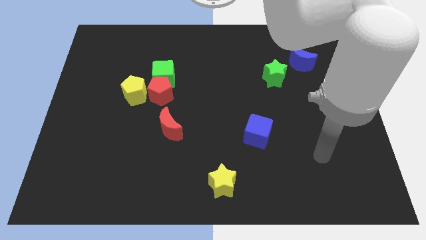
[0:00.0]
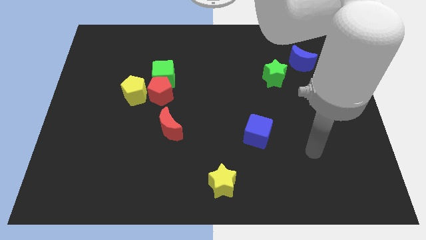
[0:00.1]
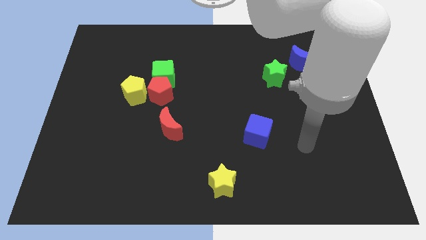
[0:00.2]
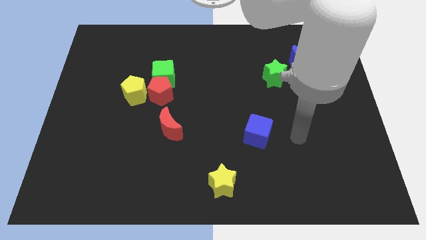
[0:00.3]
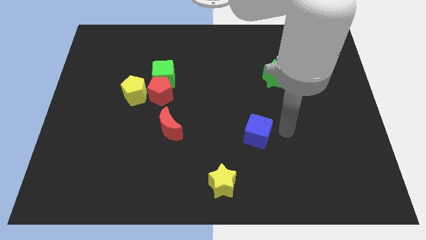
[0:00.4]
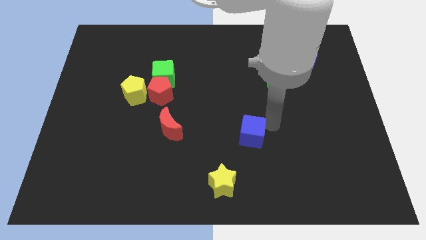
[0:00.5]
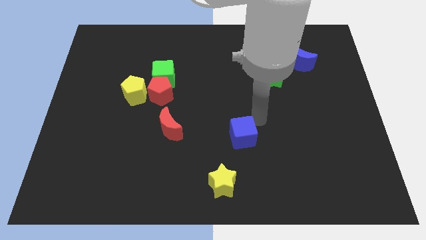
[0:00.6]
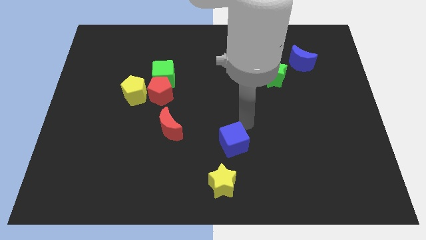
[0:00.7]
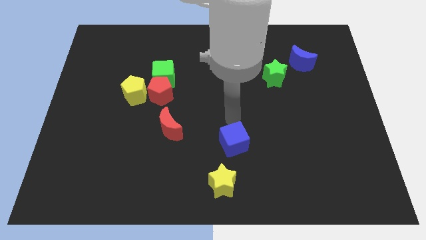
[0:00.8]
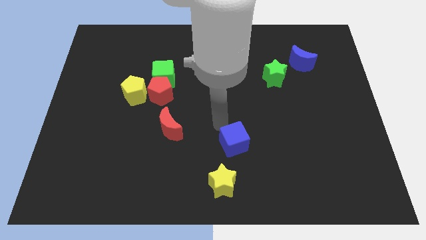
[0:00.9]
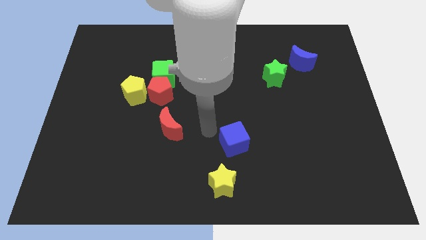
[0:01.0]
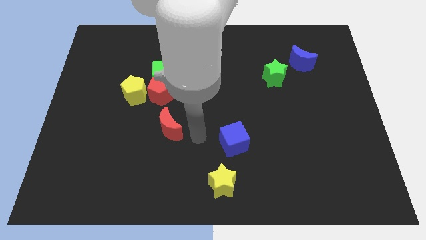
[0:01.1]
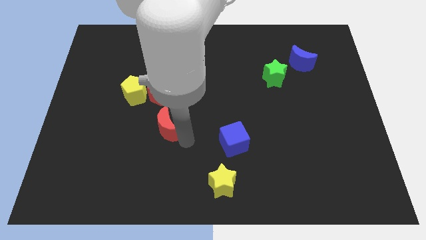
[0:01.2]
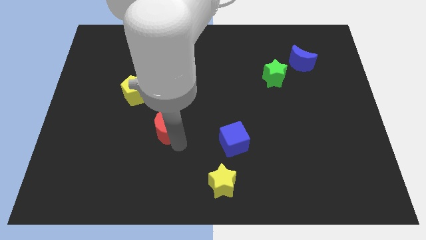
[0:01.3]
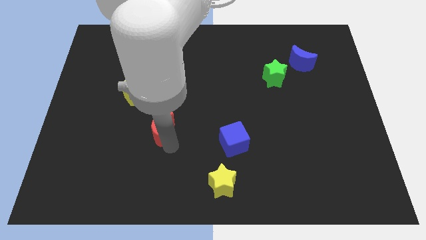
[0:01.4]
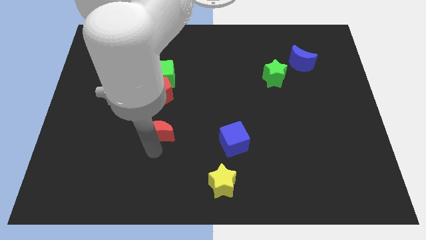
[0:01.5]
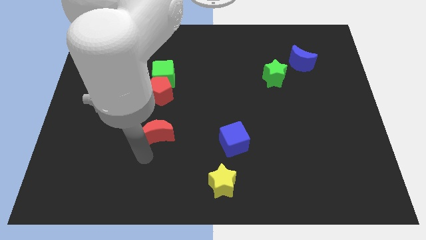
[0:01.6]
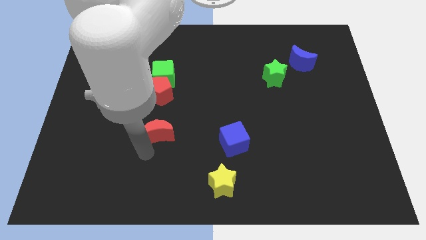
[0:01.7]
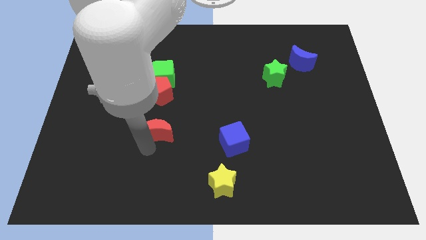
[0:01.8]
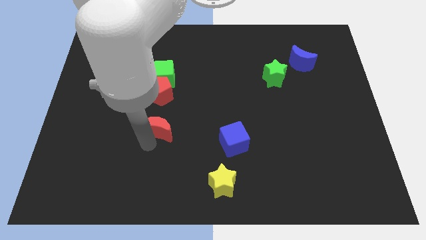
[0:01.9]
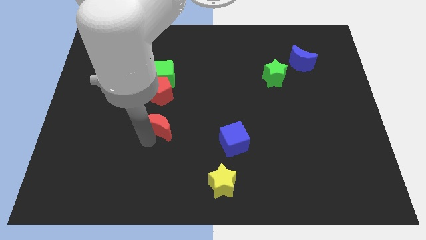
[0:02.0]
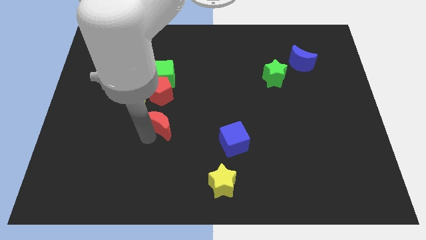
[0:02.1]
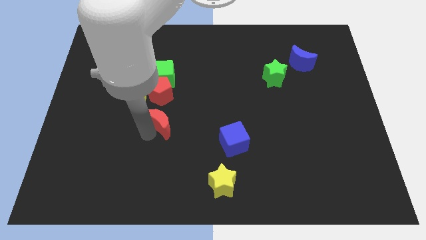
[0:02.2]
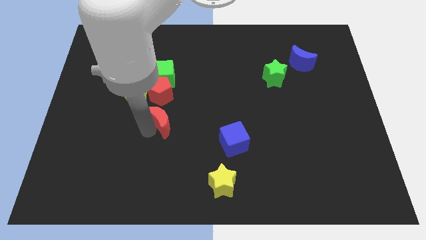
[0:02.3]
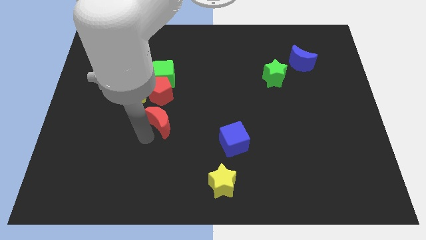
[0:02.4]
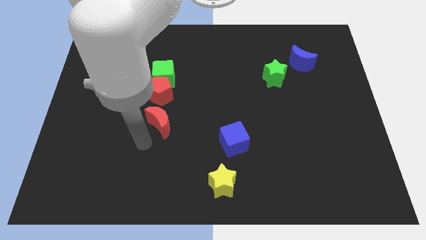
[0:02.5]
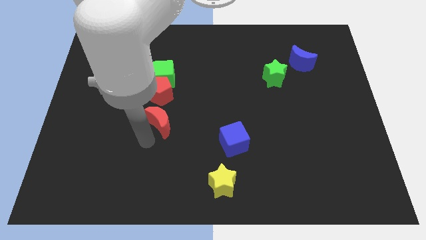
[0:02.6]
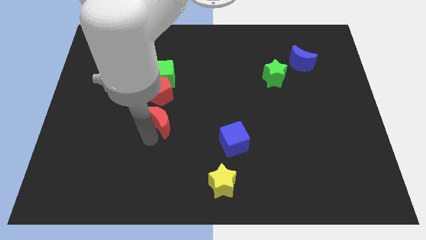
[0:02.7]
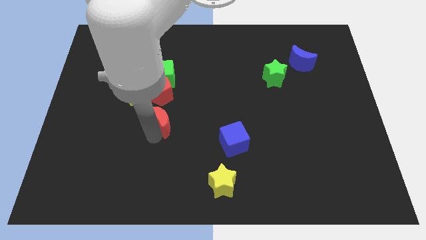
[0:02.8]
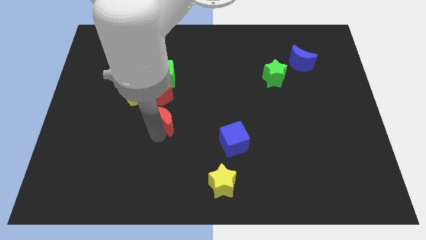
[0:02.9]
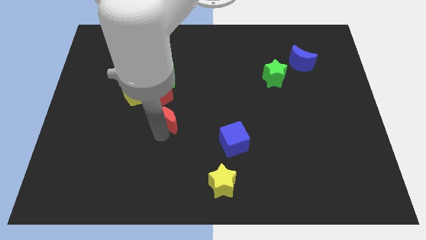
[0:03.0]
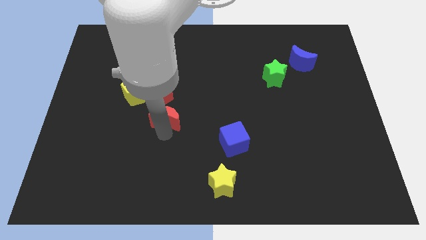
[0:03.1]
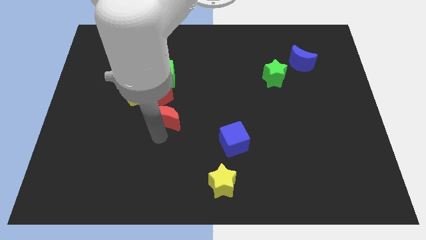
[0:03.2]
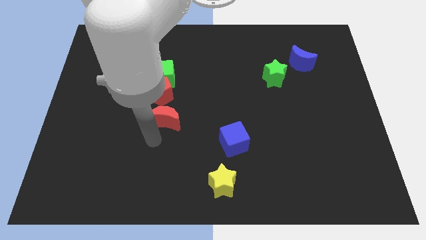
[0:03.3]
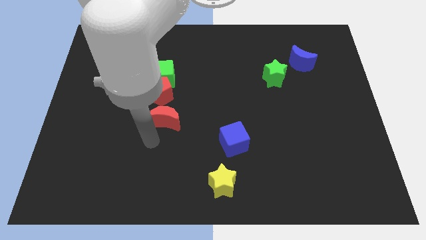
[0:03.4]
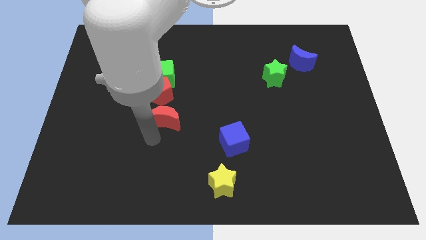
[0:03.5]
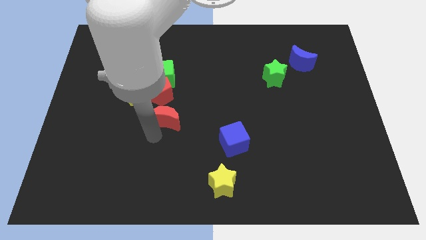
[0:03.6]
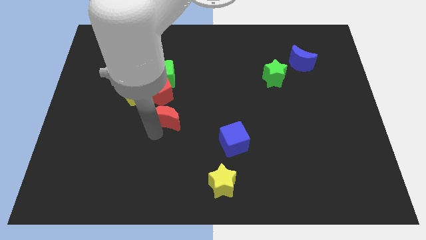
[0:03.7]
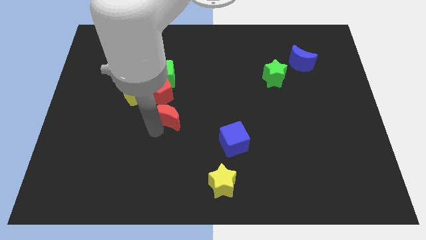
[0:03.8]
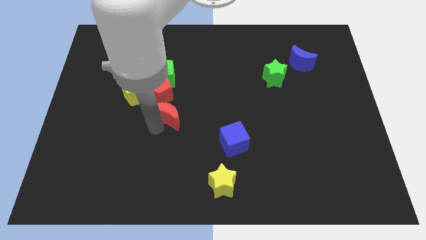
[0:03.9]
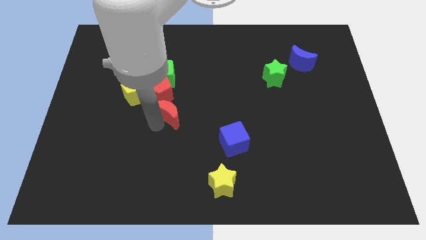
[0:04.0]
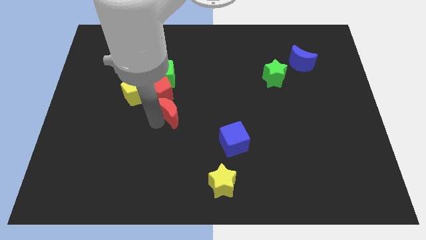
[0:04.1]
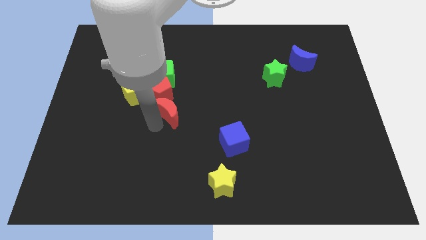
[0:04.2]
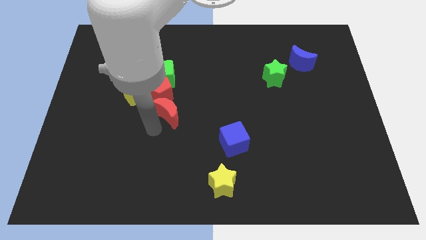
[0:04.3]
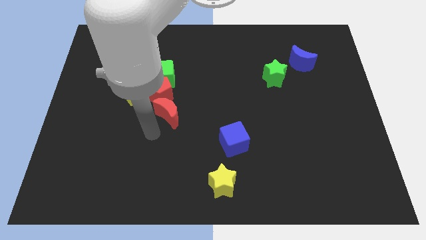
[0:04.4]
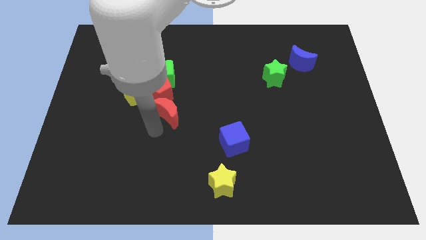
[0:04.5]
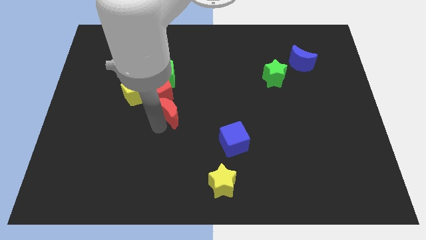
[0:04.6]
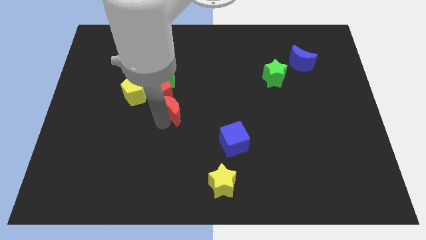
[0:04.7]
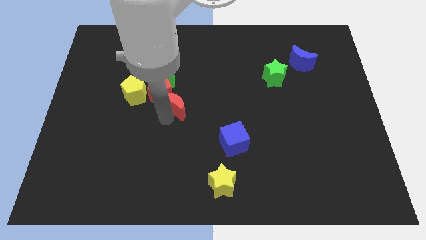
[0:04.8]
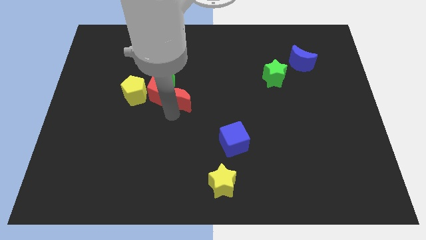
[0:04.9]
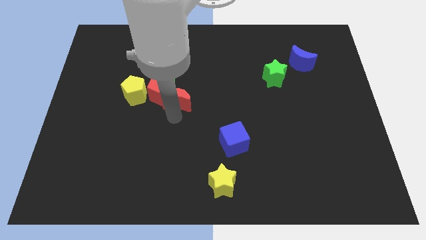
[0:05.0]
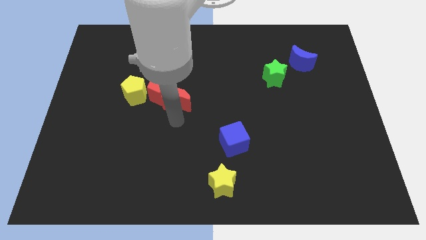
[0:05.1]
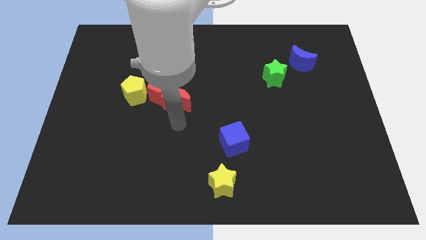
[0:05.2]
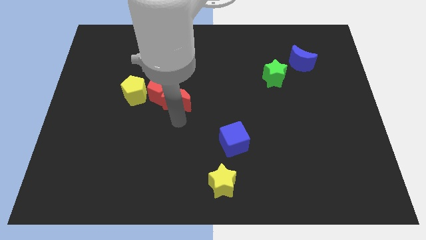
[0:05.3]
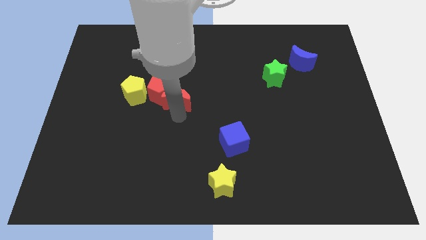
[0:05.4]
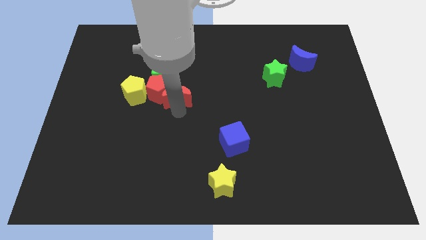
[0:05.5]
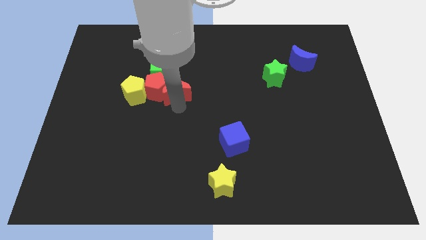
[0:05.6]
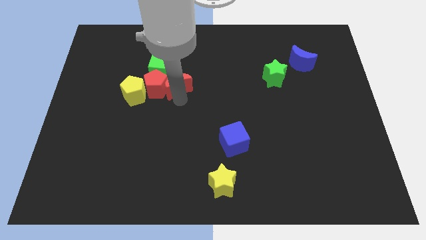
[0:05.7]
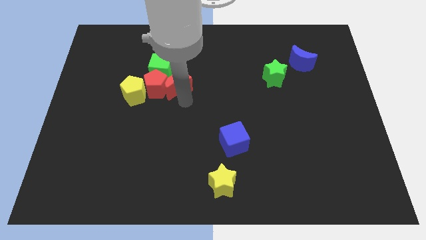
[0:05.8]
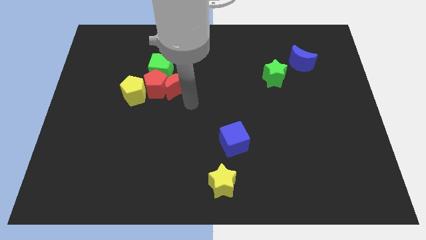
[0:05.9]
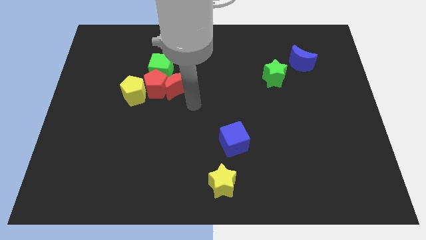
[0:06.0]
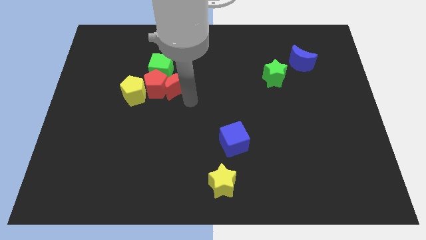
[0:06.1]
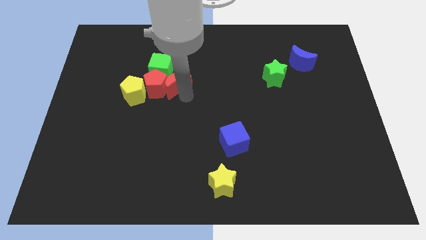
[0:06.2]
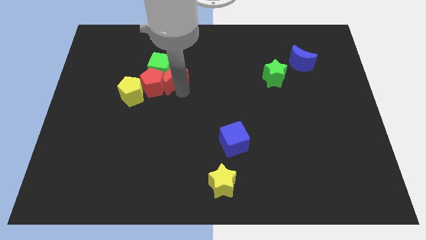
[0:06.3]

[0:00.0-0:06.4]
move the red moon close to the green cube

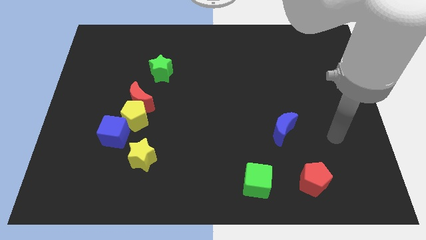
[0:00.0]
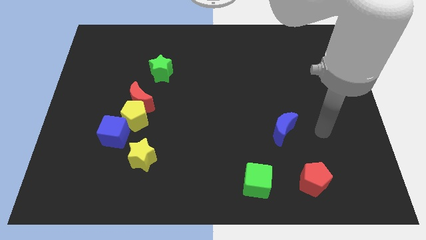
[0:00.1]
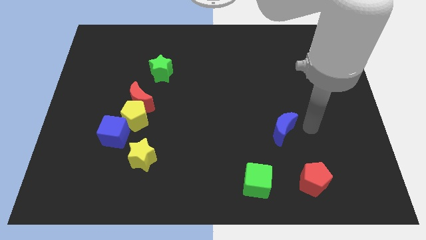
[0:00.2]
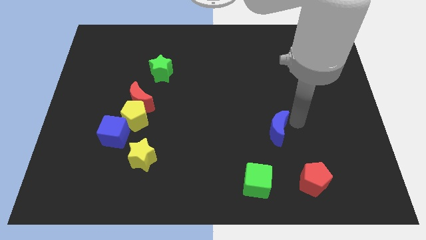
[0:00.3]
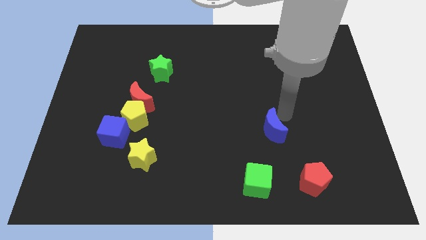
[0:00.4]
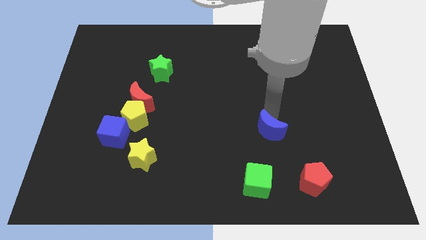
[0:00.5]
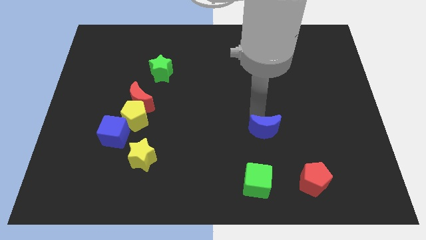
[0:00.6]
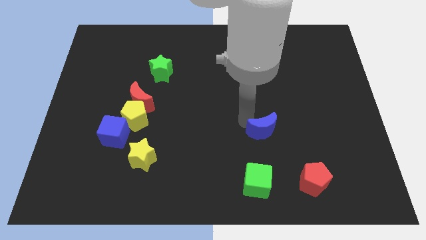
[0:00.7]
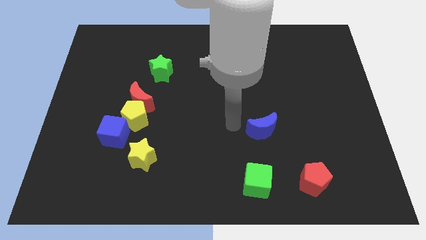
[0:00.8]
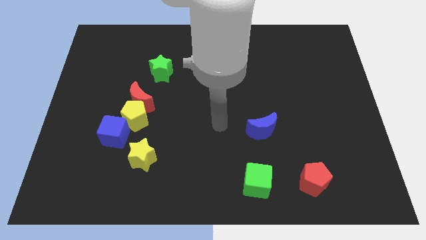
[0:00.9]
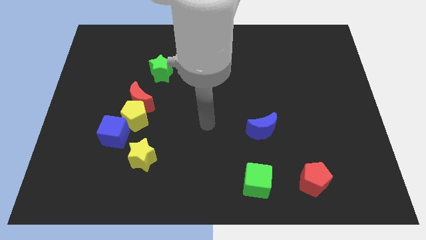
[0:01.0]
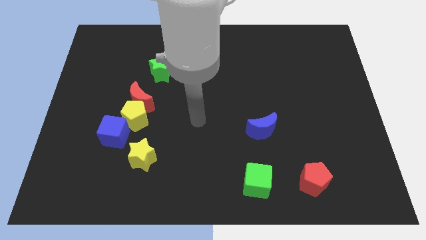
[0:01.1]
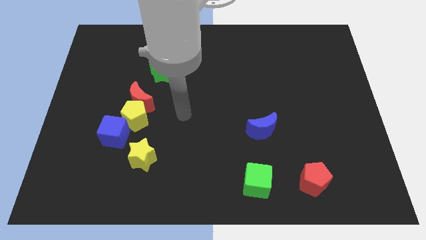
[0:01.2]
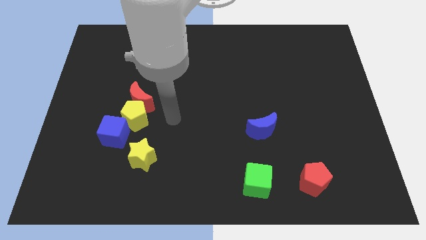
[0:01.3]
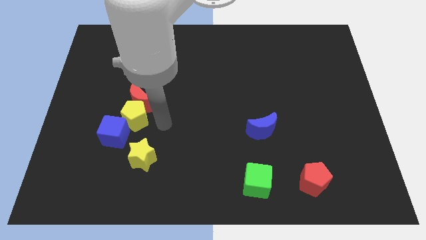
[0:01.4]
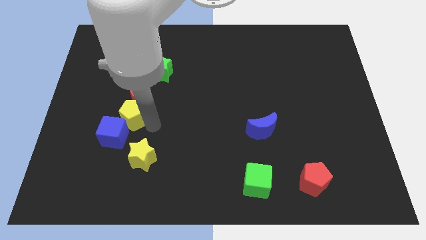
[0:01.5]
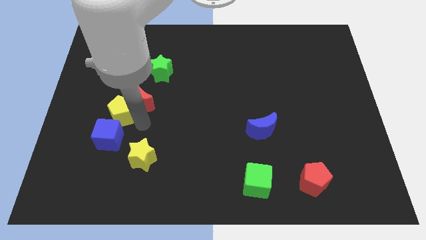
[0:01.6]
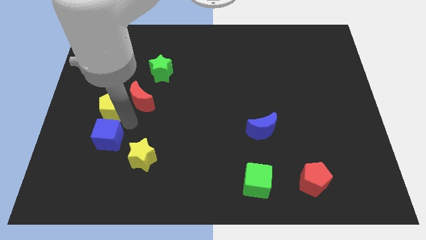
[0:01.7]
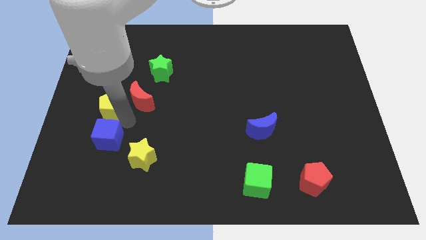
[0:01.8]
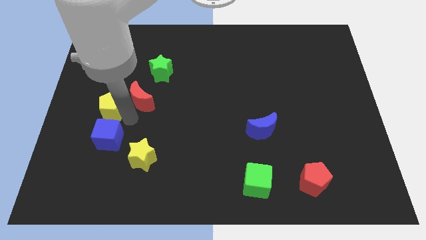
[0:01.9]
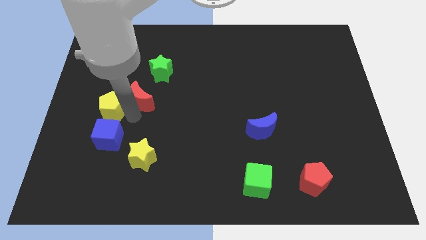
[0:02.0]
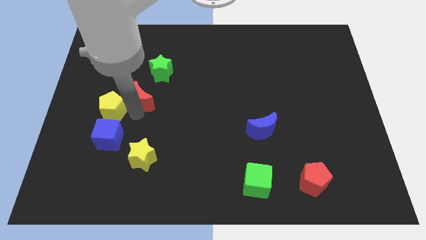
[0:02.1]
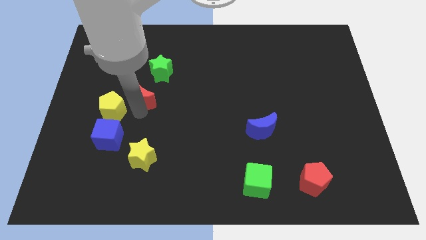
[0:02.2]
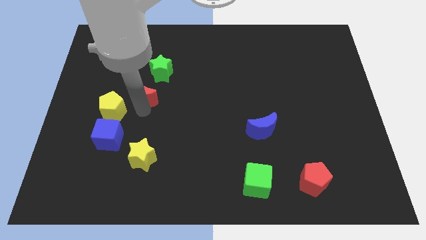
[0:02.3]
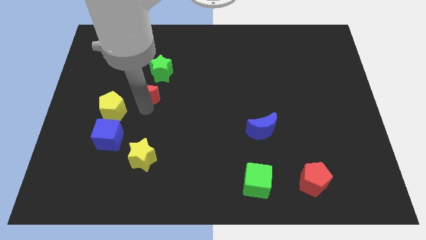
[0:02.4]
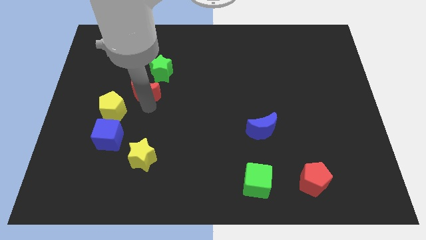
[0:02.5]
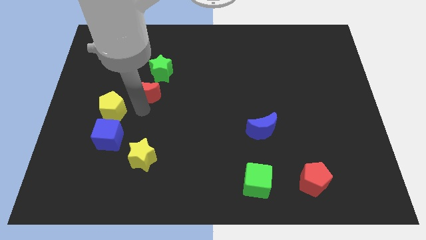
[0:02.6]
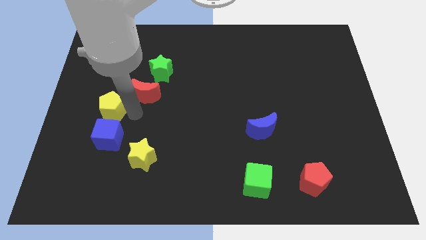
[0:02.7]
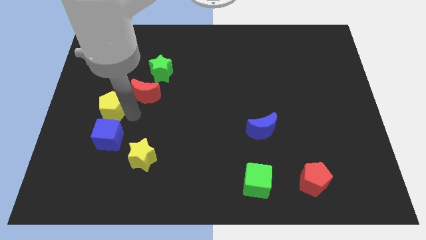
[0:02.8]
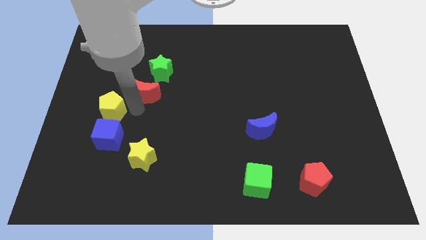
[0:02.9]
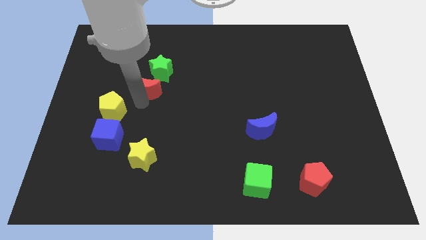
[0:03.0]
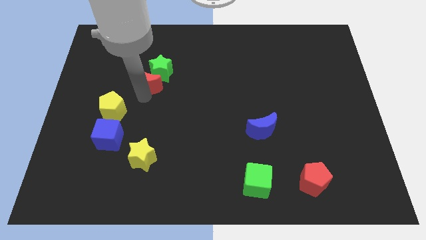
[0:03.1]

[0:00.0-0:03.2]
put the red moon towards the green star
